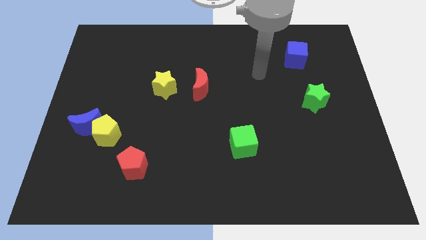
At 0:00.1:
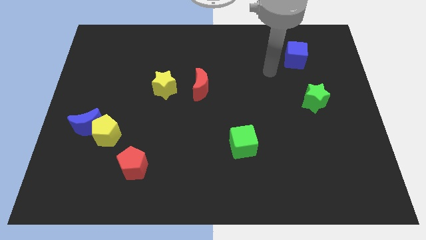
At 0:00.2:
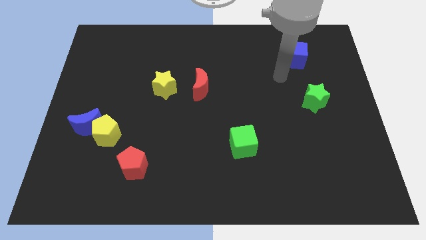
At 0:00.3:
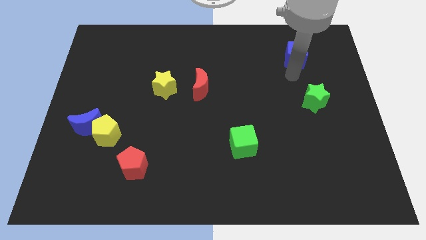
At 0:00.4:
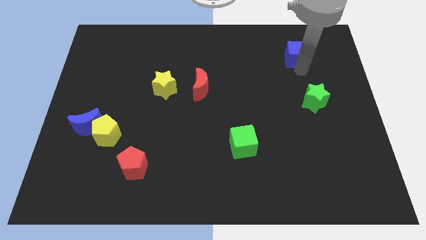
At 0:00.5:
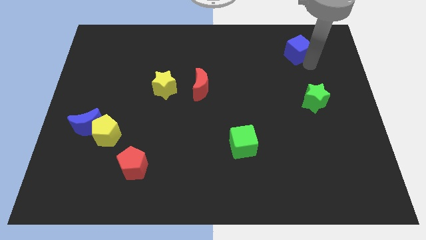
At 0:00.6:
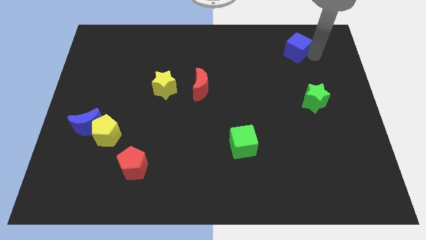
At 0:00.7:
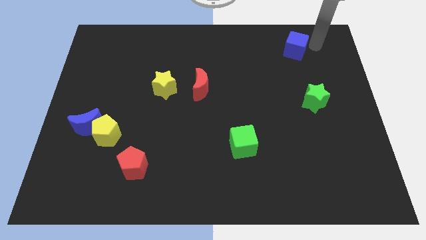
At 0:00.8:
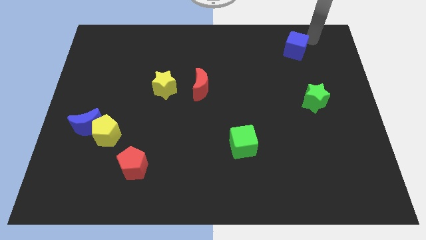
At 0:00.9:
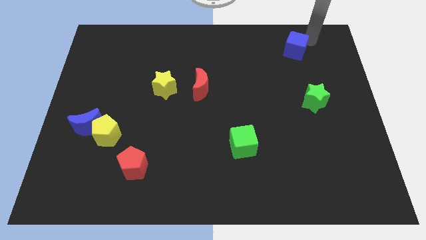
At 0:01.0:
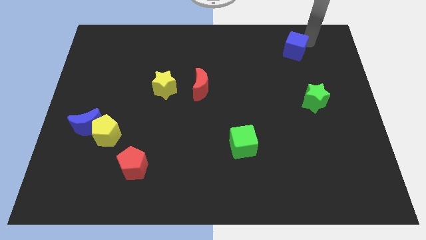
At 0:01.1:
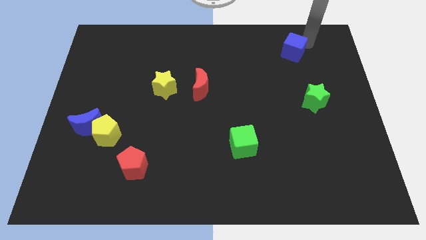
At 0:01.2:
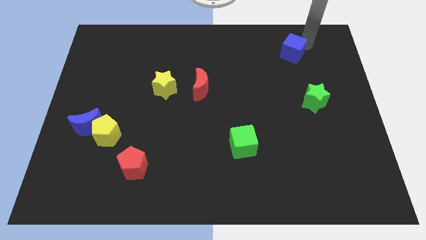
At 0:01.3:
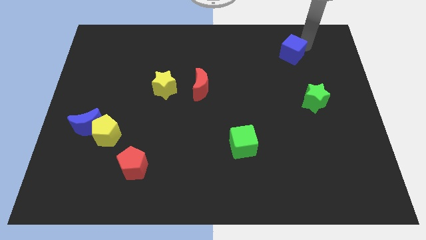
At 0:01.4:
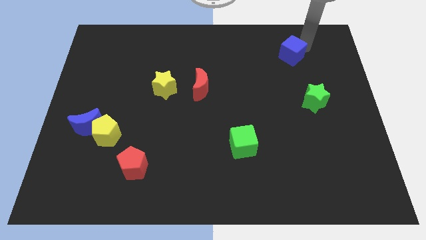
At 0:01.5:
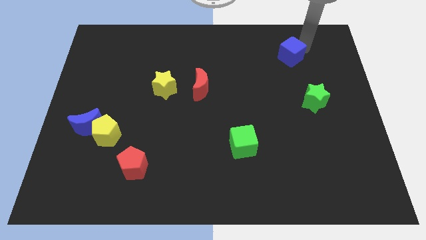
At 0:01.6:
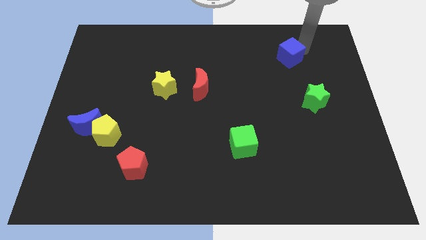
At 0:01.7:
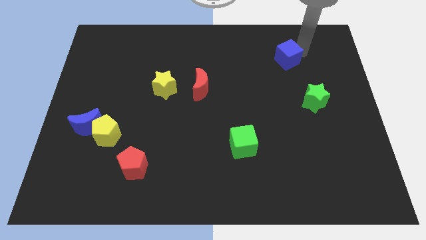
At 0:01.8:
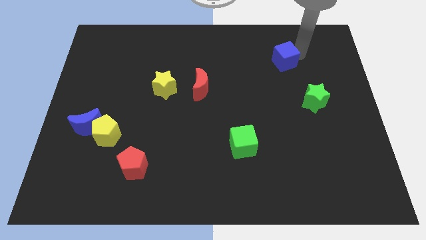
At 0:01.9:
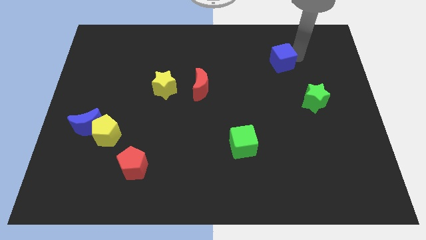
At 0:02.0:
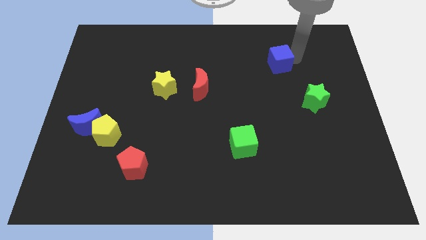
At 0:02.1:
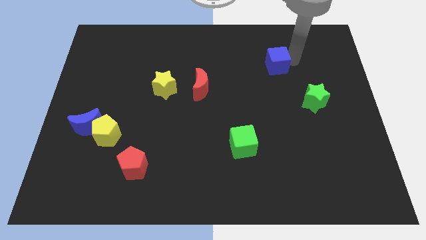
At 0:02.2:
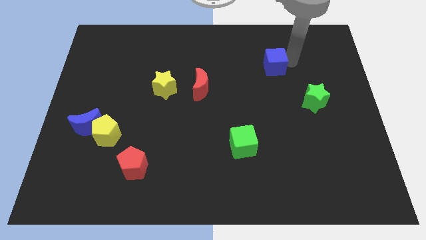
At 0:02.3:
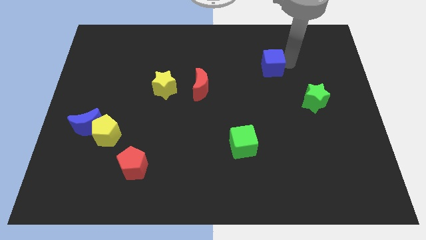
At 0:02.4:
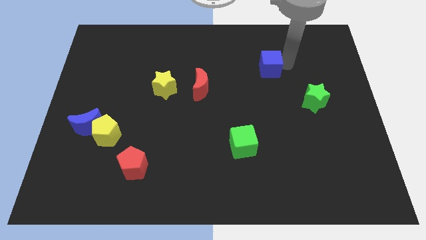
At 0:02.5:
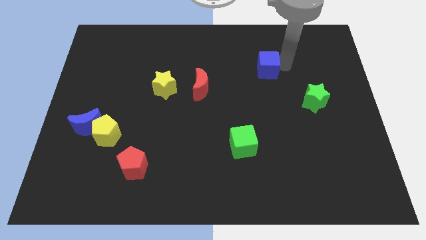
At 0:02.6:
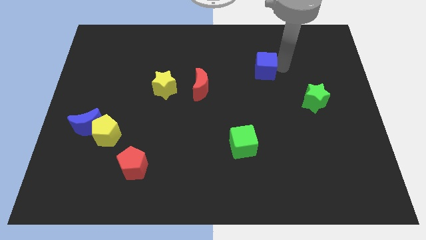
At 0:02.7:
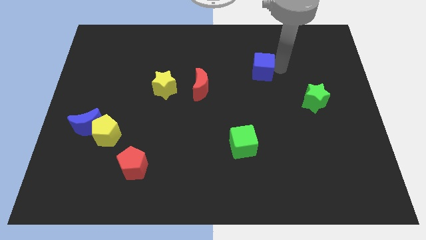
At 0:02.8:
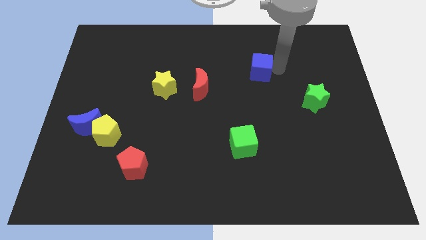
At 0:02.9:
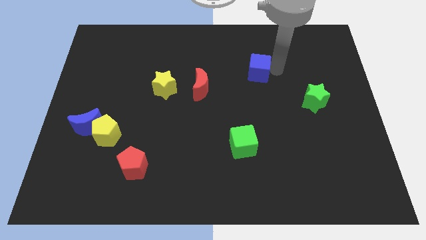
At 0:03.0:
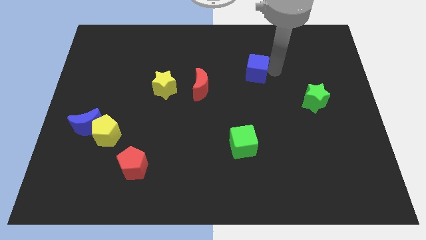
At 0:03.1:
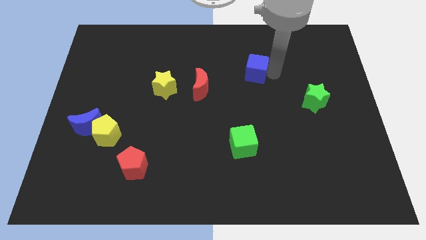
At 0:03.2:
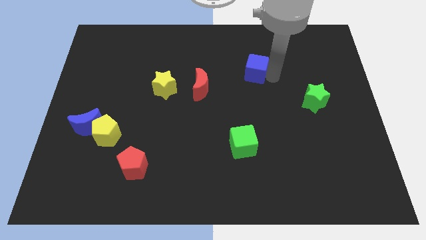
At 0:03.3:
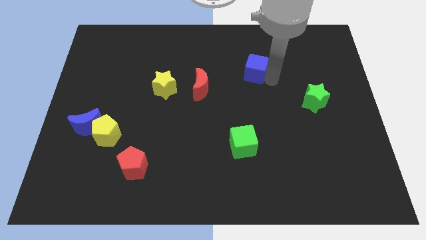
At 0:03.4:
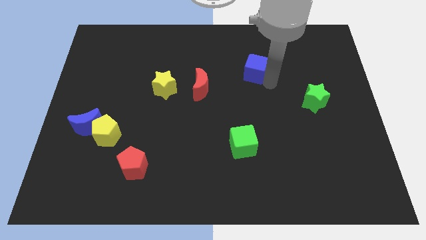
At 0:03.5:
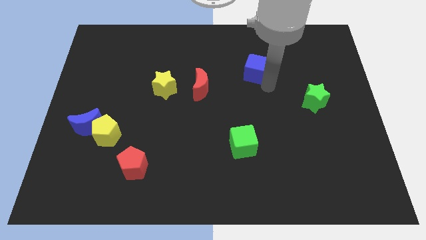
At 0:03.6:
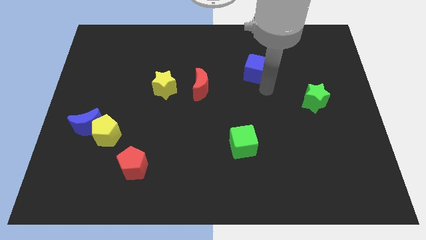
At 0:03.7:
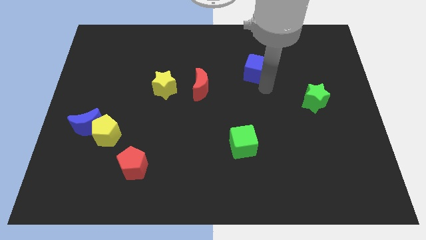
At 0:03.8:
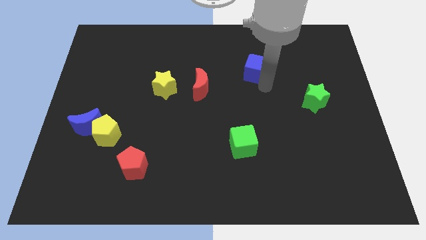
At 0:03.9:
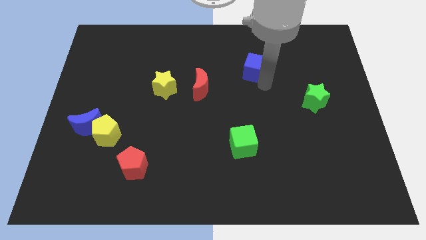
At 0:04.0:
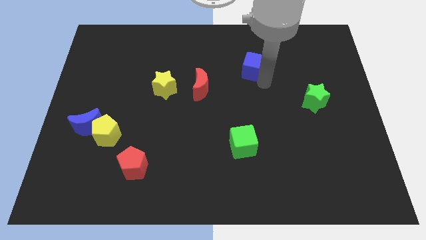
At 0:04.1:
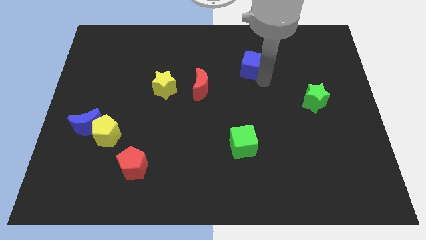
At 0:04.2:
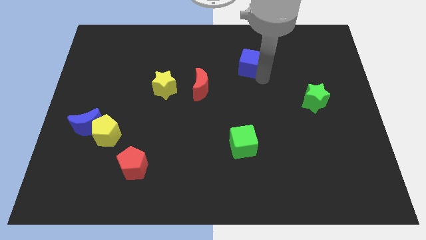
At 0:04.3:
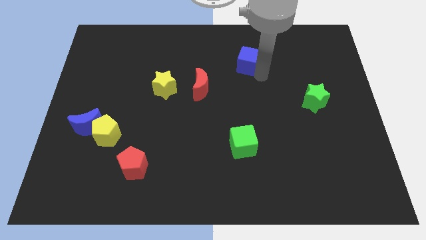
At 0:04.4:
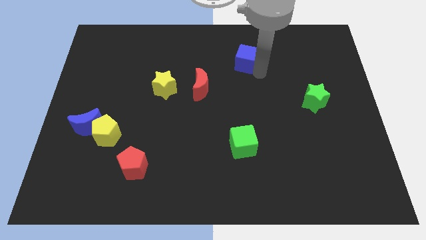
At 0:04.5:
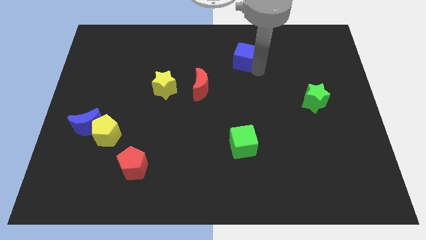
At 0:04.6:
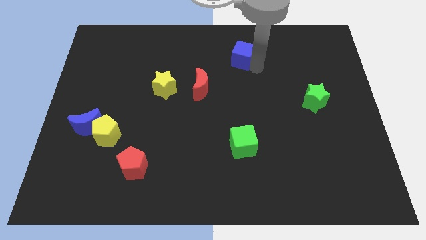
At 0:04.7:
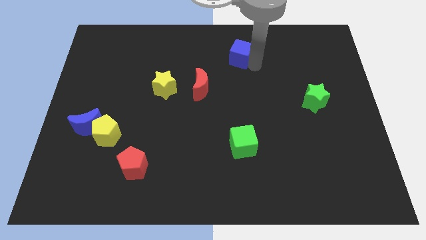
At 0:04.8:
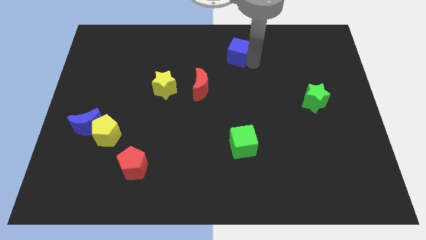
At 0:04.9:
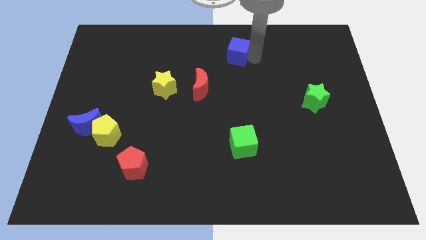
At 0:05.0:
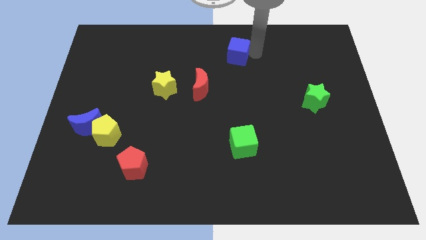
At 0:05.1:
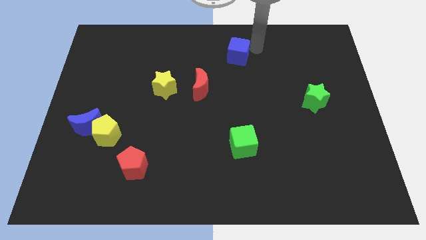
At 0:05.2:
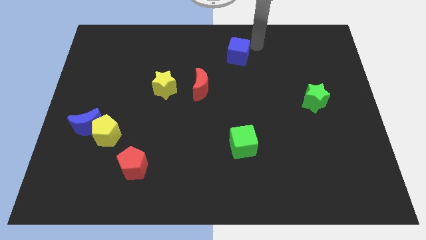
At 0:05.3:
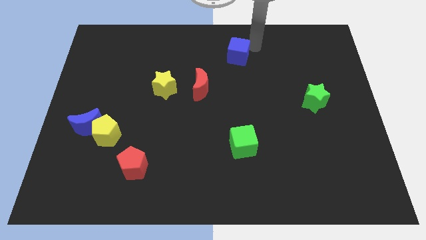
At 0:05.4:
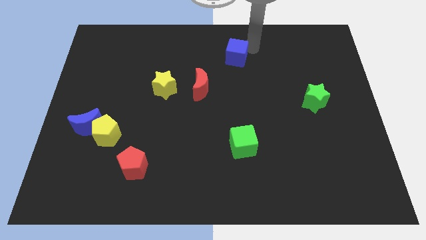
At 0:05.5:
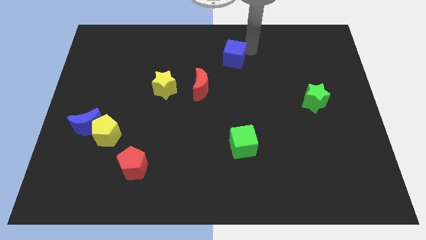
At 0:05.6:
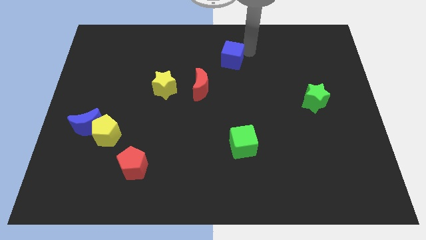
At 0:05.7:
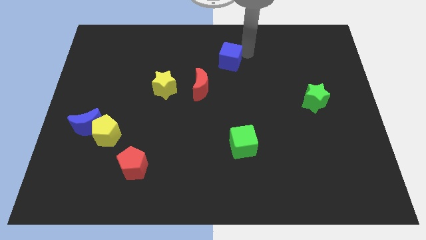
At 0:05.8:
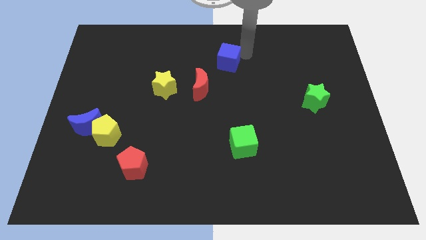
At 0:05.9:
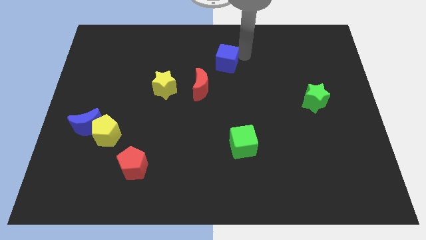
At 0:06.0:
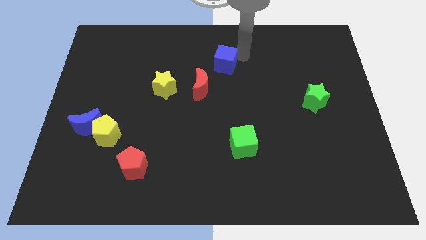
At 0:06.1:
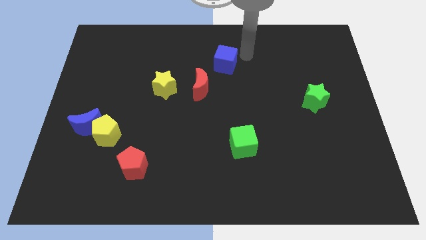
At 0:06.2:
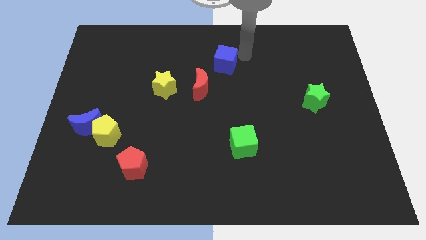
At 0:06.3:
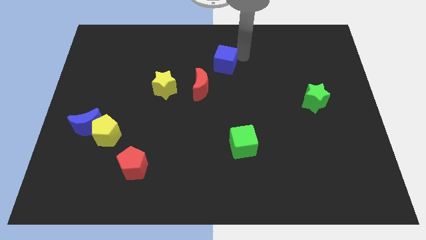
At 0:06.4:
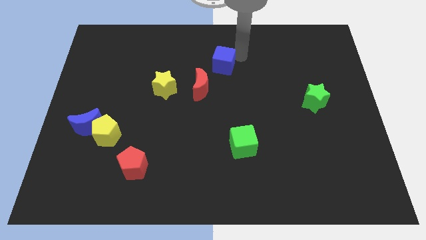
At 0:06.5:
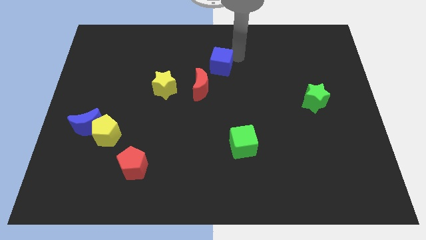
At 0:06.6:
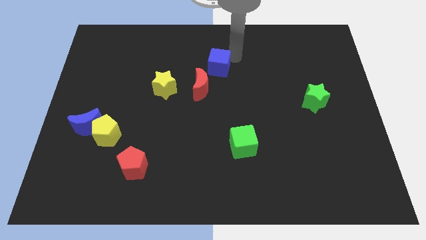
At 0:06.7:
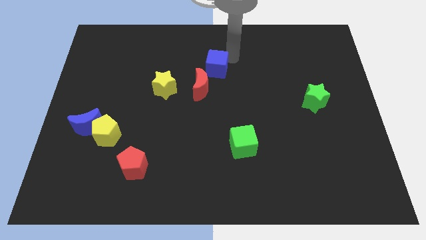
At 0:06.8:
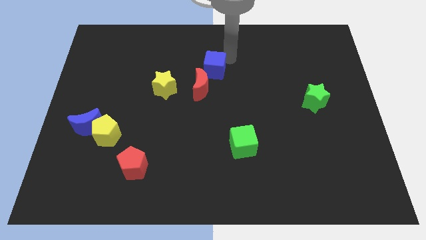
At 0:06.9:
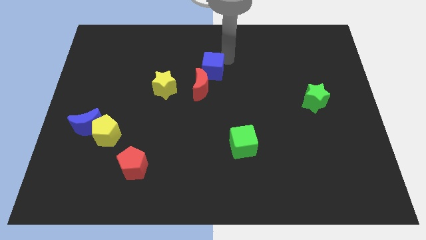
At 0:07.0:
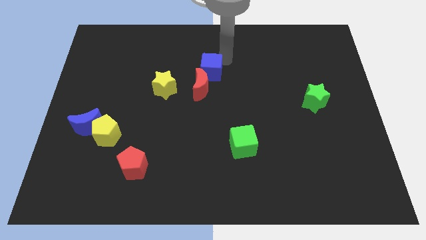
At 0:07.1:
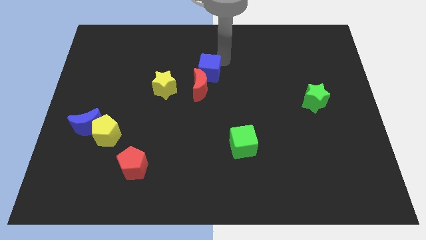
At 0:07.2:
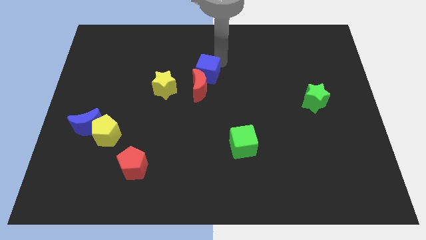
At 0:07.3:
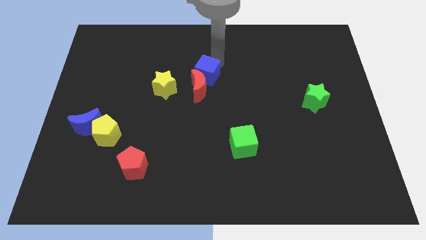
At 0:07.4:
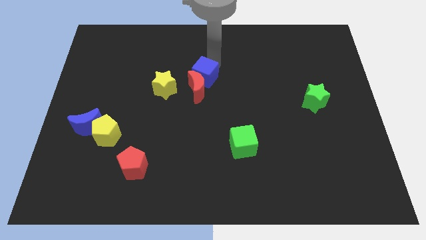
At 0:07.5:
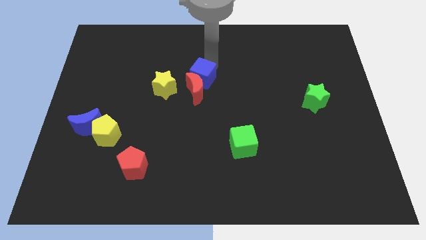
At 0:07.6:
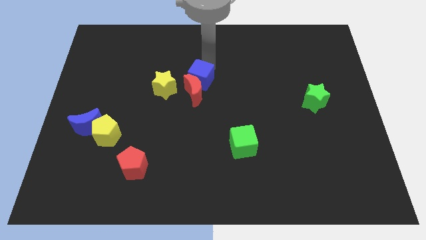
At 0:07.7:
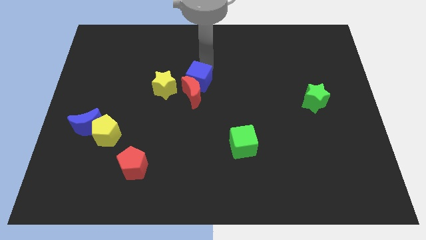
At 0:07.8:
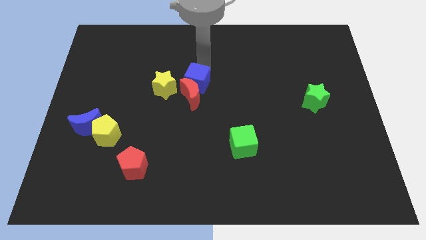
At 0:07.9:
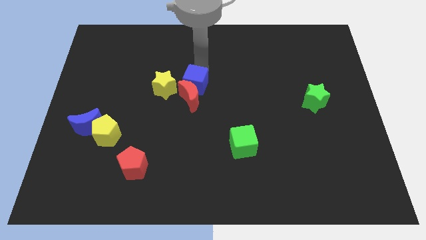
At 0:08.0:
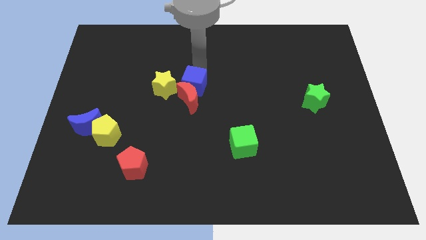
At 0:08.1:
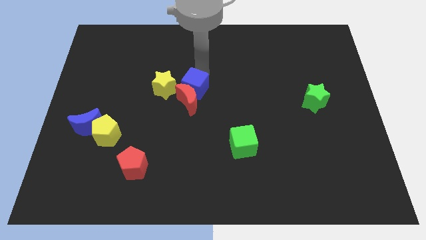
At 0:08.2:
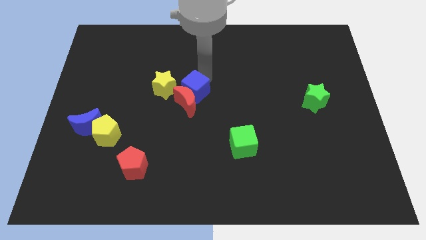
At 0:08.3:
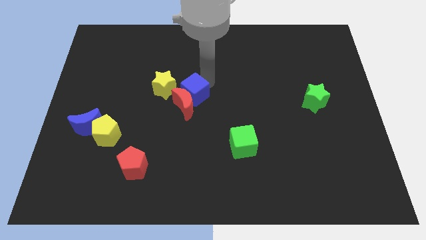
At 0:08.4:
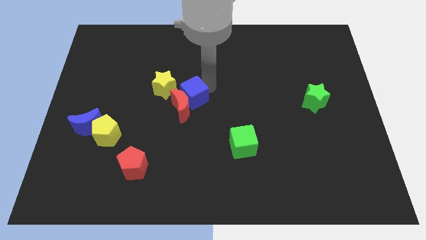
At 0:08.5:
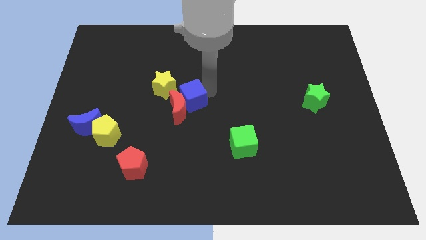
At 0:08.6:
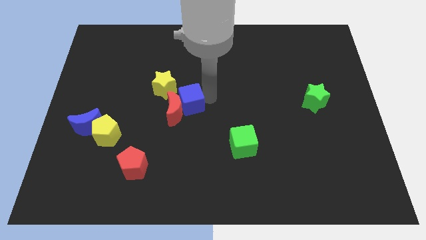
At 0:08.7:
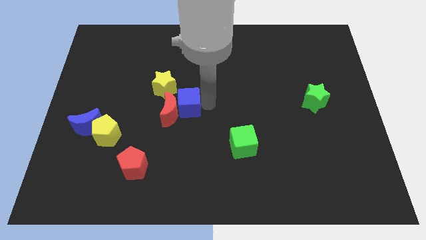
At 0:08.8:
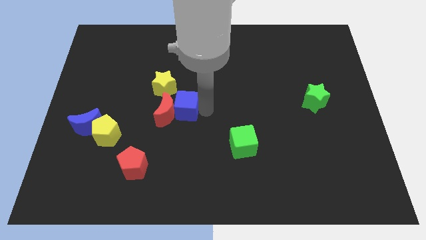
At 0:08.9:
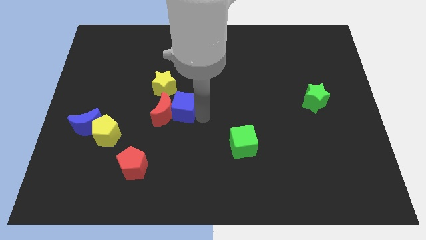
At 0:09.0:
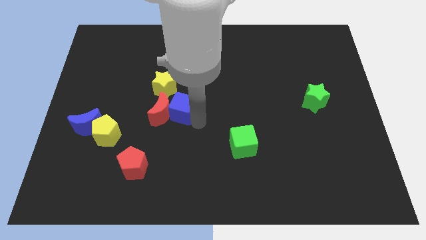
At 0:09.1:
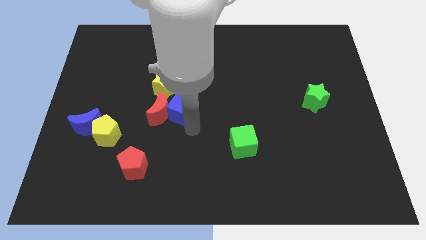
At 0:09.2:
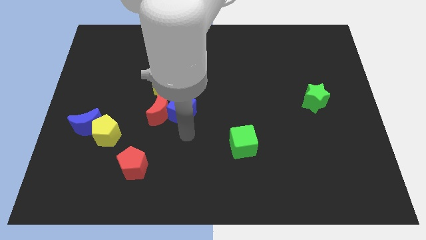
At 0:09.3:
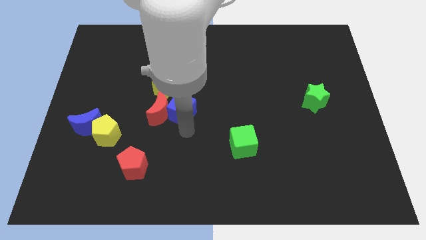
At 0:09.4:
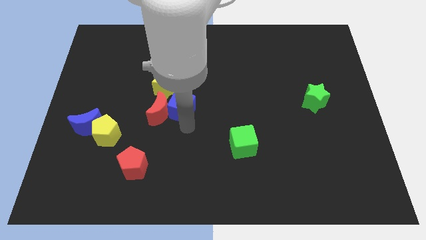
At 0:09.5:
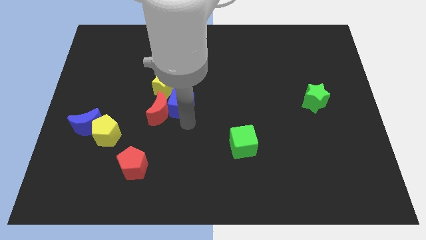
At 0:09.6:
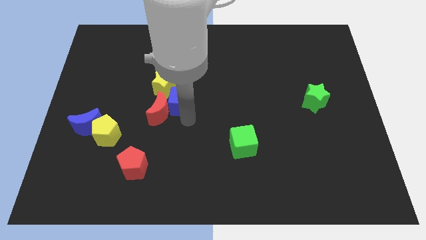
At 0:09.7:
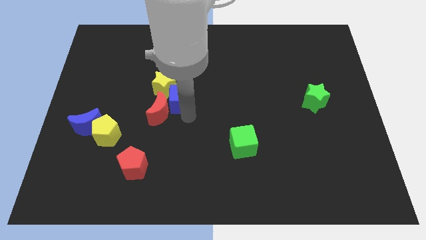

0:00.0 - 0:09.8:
put the blue cube close to the yellow star
